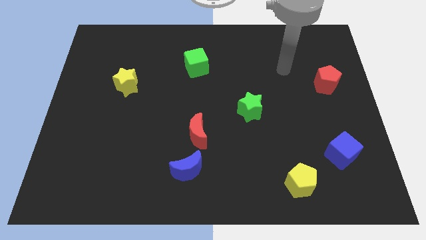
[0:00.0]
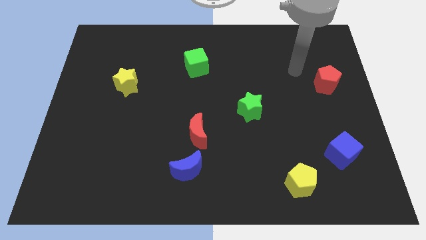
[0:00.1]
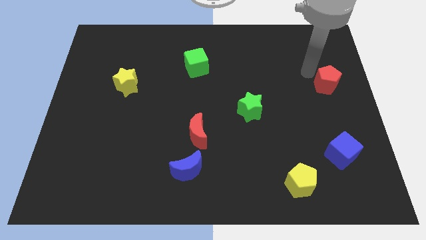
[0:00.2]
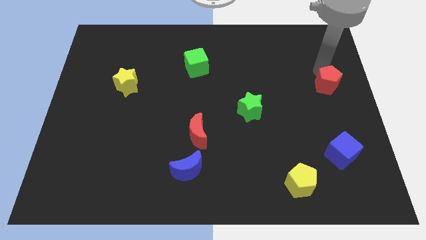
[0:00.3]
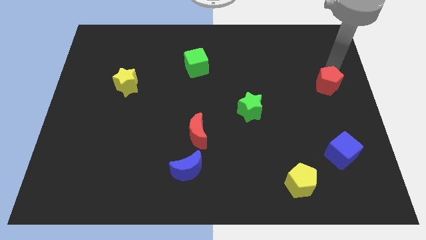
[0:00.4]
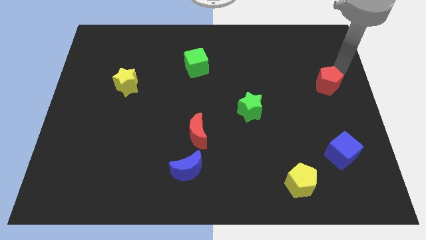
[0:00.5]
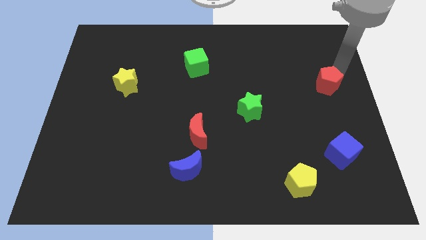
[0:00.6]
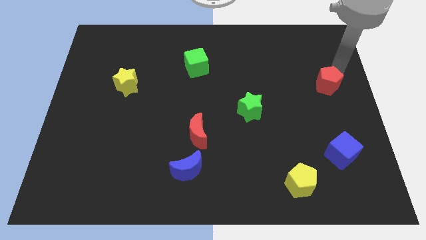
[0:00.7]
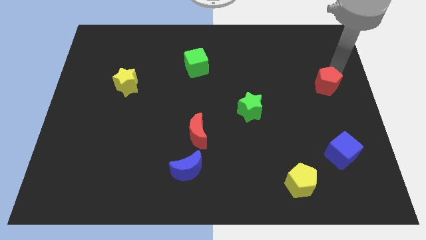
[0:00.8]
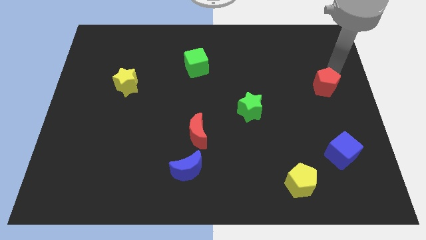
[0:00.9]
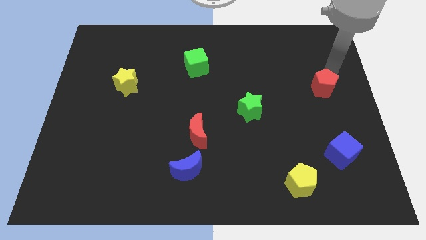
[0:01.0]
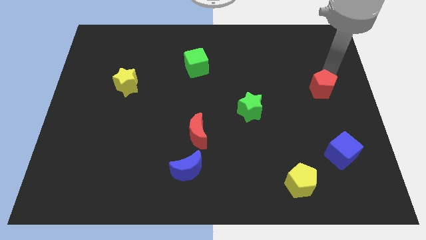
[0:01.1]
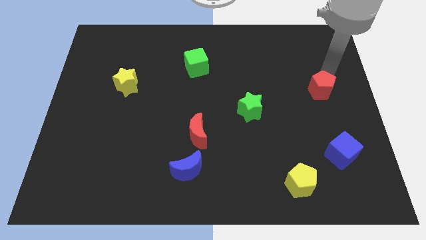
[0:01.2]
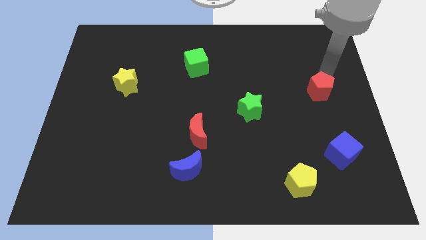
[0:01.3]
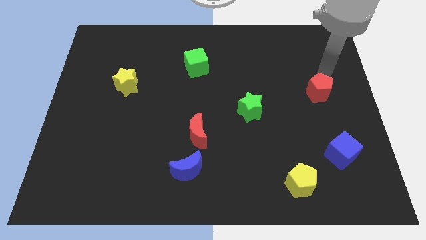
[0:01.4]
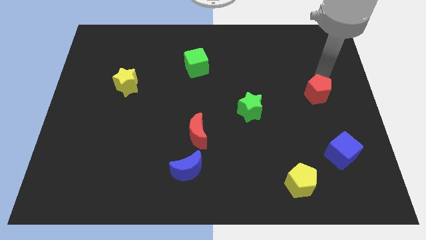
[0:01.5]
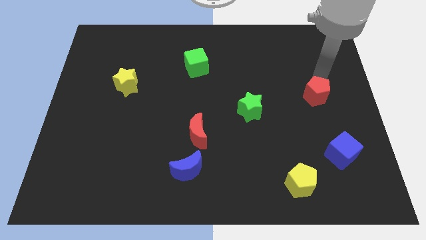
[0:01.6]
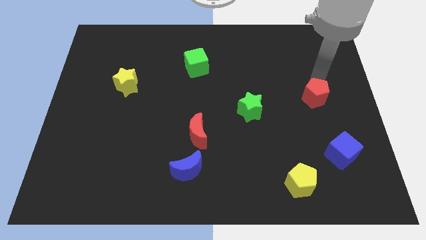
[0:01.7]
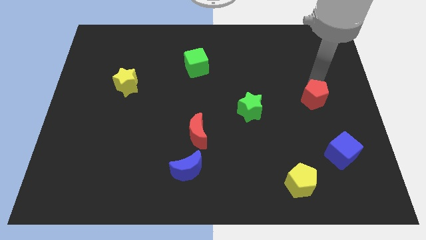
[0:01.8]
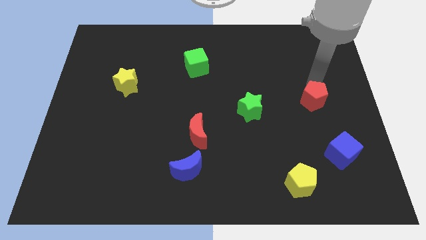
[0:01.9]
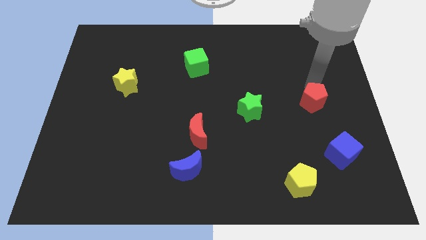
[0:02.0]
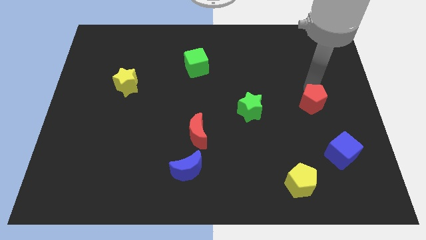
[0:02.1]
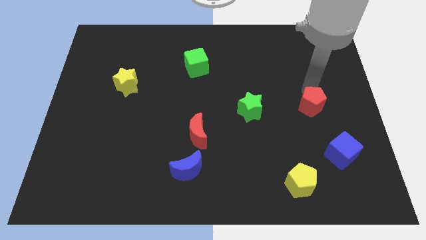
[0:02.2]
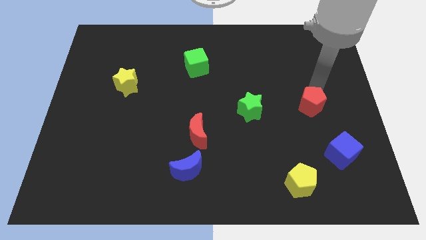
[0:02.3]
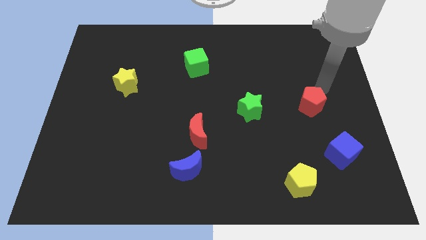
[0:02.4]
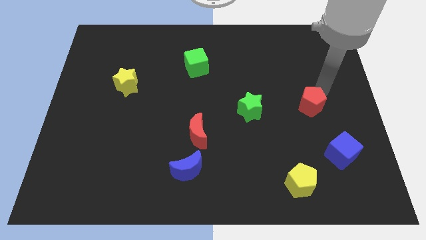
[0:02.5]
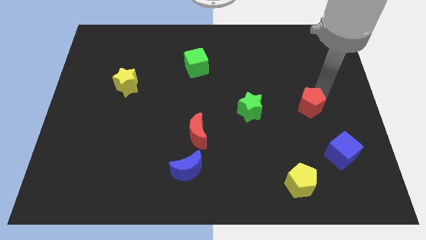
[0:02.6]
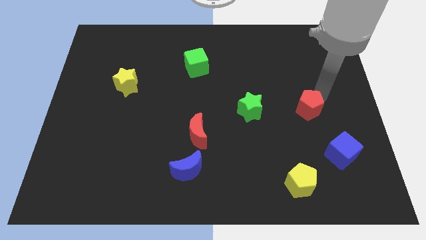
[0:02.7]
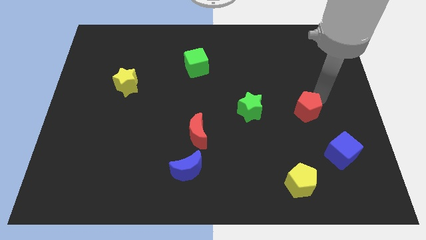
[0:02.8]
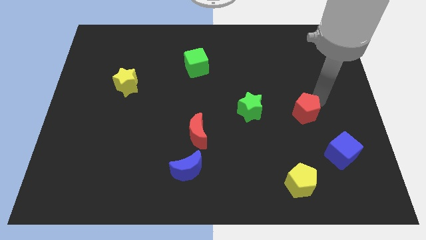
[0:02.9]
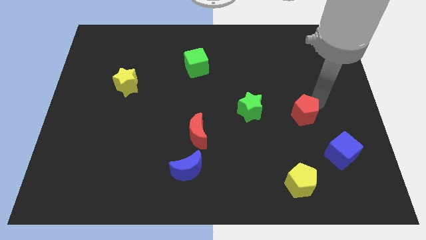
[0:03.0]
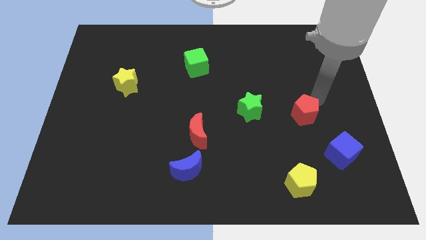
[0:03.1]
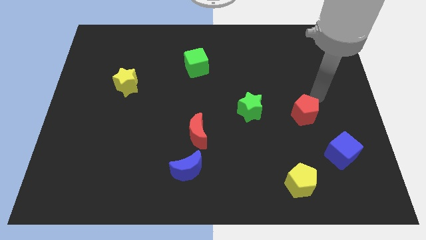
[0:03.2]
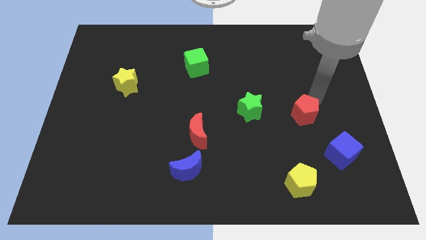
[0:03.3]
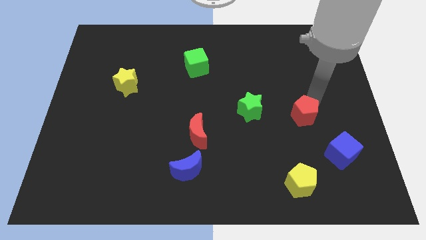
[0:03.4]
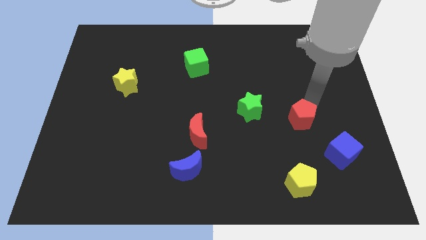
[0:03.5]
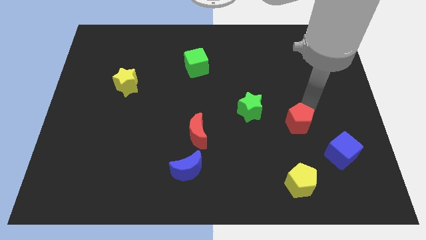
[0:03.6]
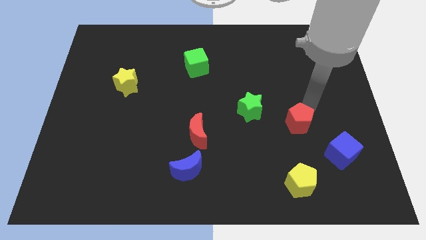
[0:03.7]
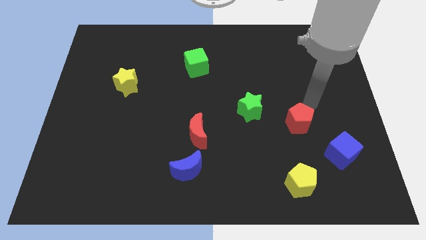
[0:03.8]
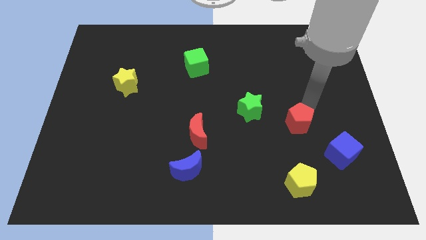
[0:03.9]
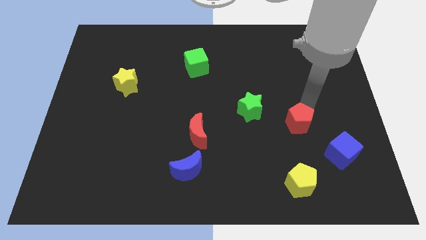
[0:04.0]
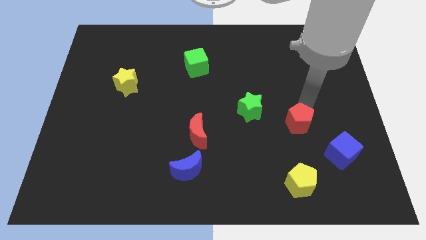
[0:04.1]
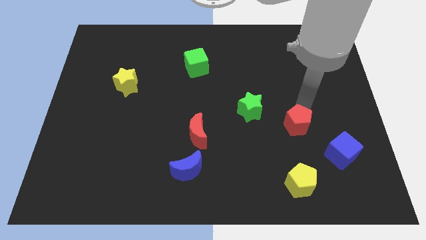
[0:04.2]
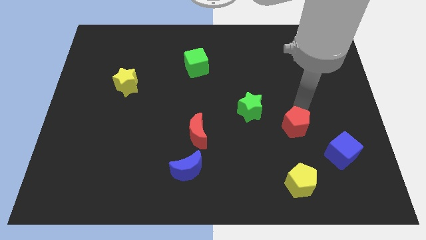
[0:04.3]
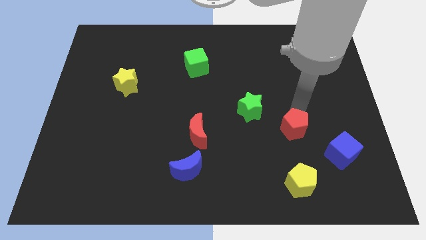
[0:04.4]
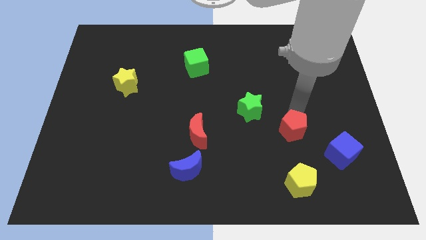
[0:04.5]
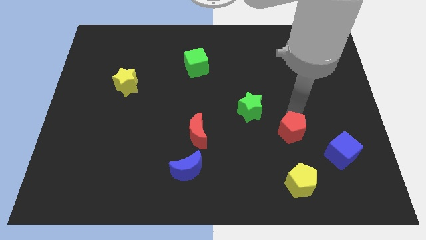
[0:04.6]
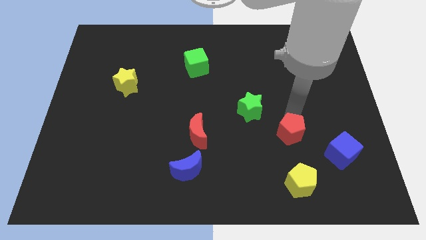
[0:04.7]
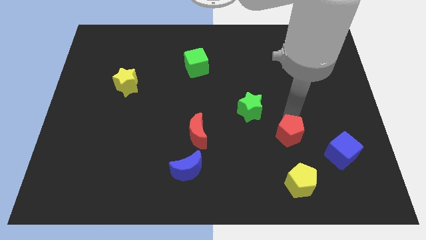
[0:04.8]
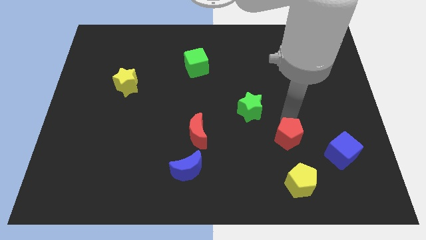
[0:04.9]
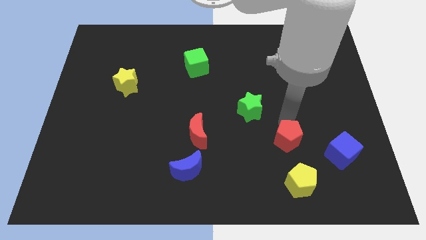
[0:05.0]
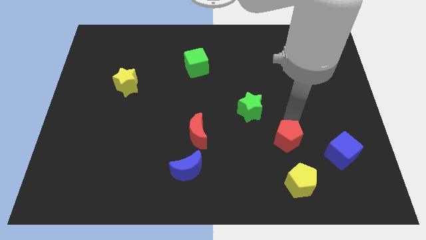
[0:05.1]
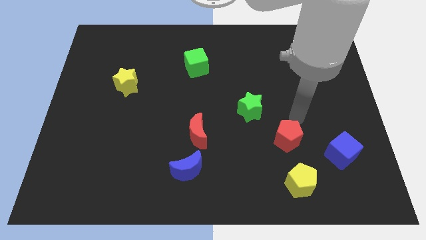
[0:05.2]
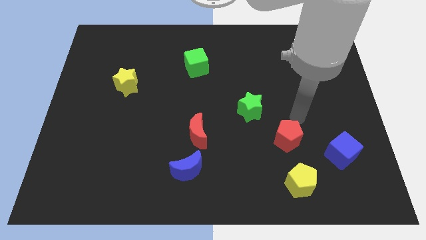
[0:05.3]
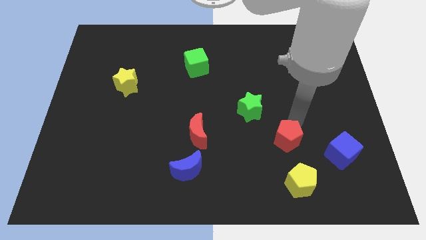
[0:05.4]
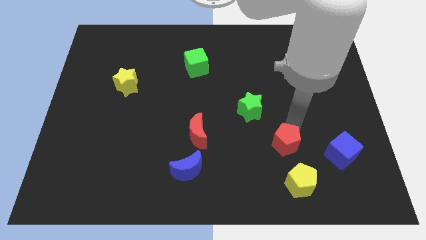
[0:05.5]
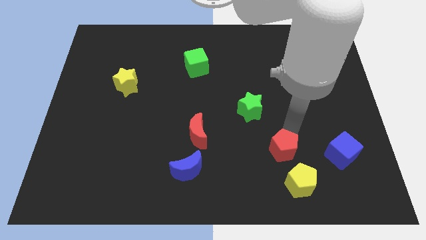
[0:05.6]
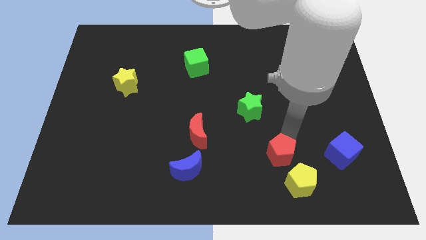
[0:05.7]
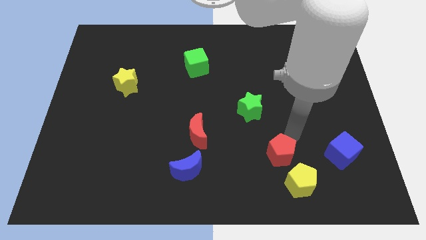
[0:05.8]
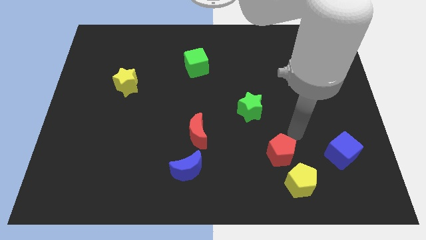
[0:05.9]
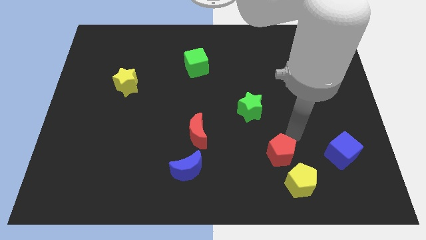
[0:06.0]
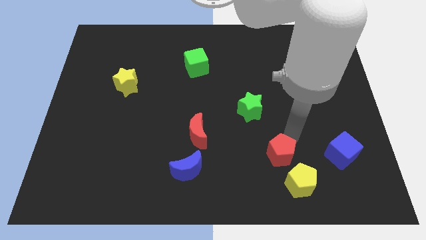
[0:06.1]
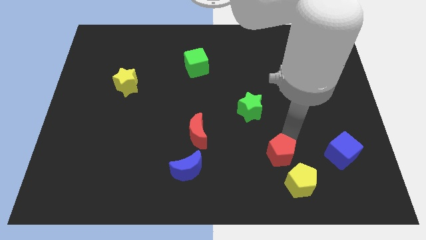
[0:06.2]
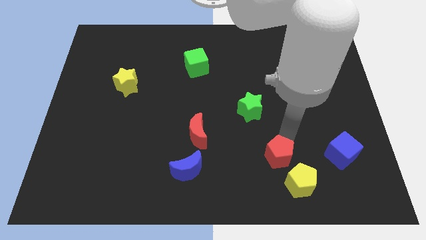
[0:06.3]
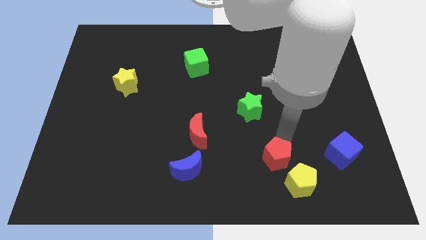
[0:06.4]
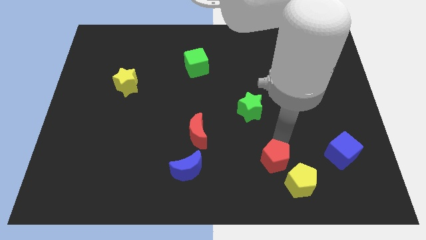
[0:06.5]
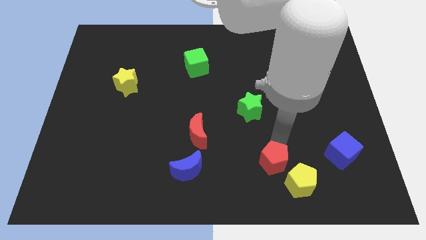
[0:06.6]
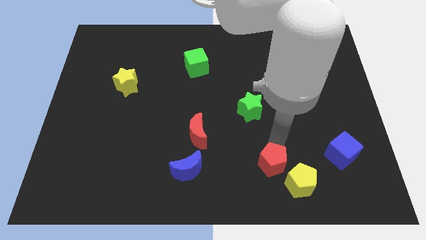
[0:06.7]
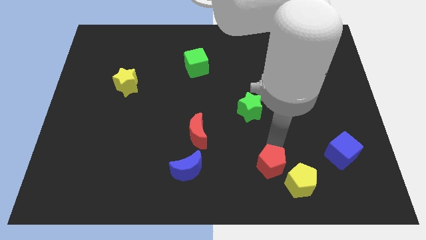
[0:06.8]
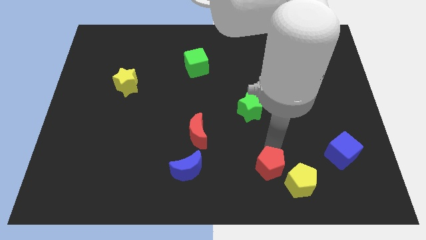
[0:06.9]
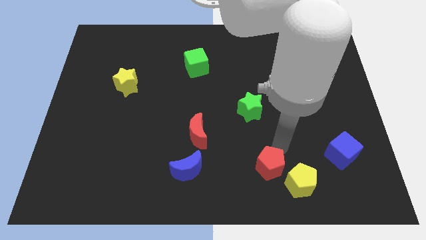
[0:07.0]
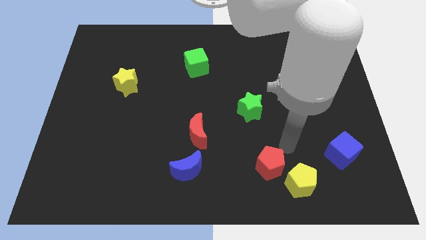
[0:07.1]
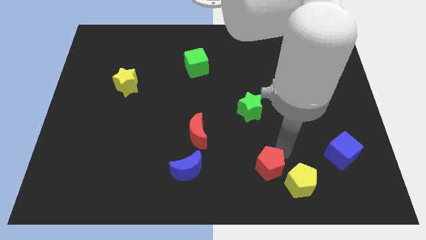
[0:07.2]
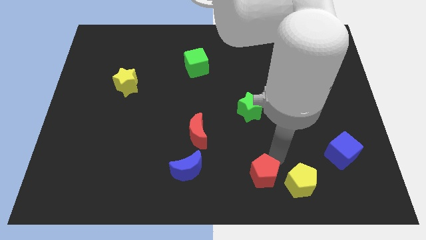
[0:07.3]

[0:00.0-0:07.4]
slide the red pentagon to the bottom side

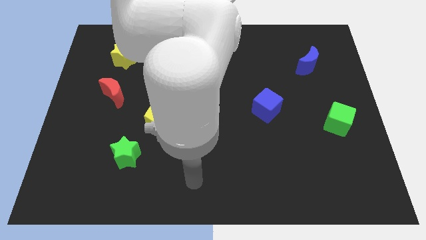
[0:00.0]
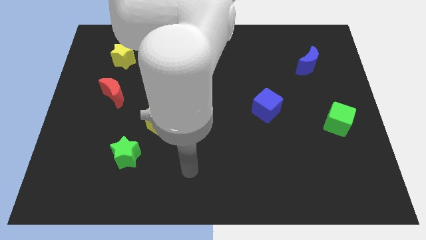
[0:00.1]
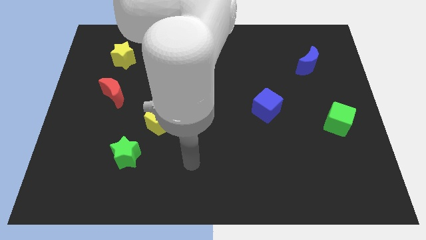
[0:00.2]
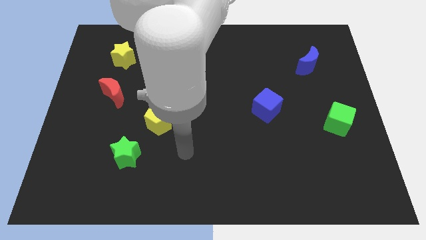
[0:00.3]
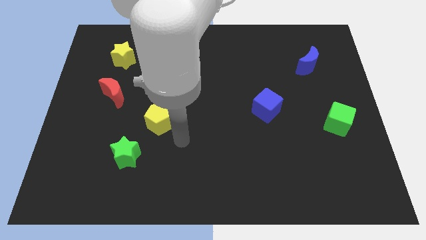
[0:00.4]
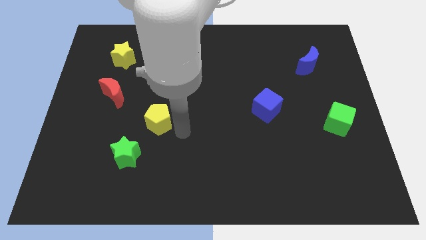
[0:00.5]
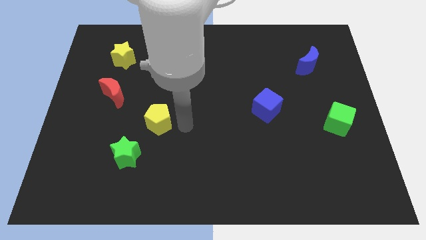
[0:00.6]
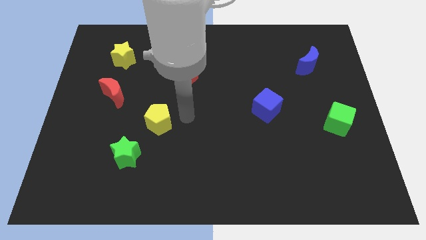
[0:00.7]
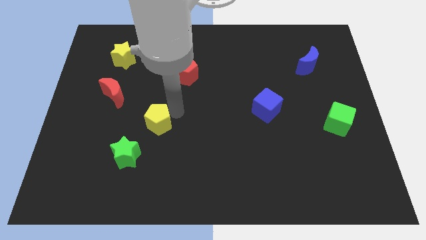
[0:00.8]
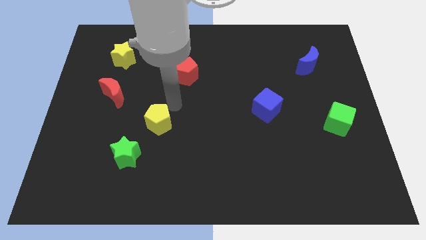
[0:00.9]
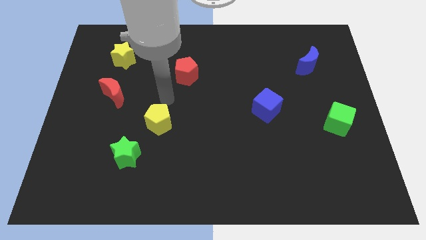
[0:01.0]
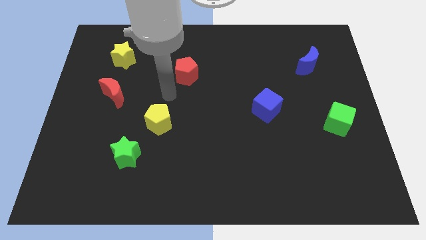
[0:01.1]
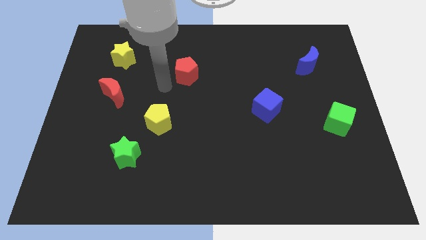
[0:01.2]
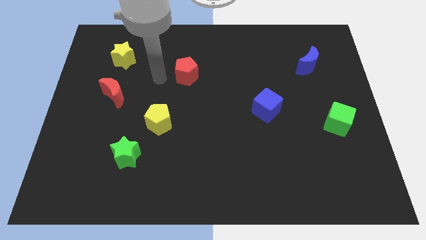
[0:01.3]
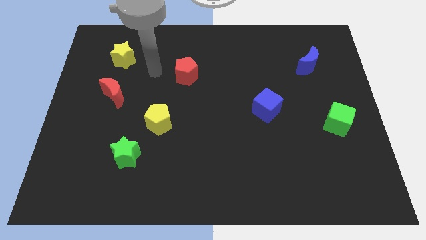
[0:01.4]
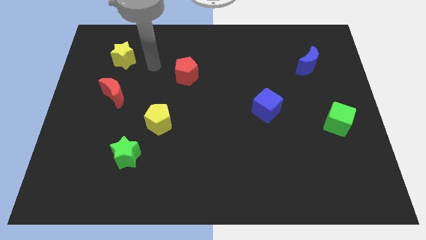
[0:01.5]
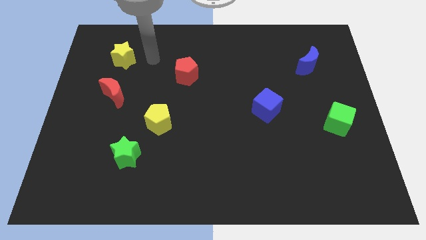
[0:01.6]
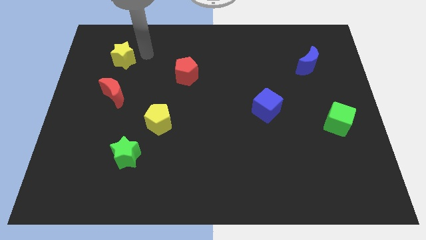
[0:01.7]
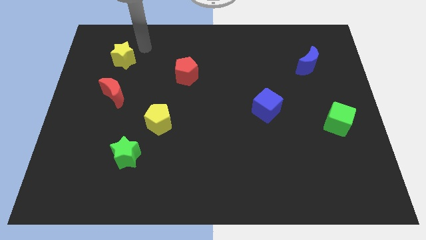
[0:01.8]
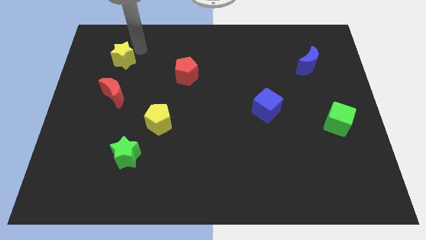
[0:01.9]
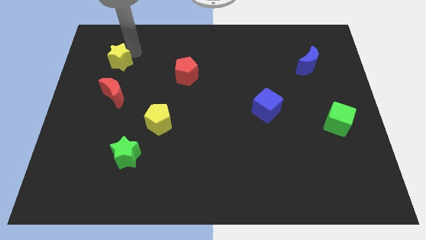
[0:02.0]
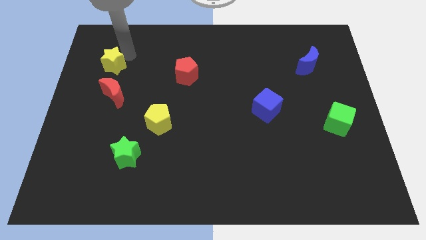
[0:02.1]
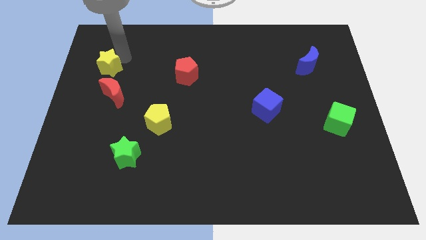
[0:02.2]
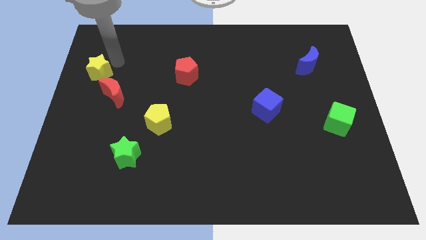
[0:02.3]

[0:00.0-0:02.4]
put the yellow star to the left side
